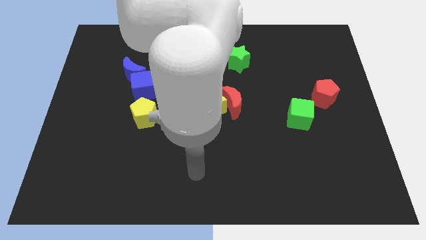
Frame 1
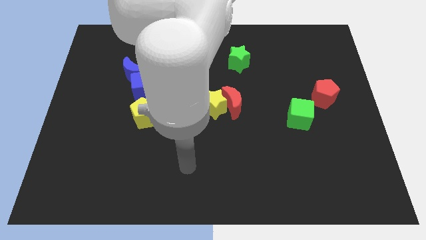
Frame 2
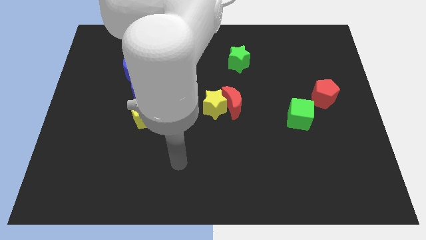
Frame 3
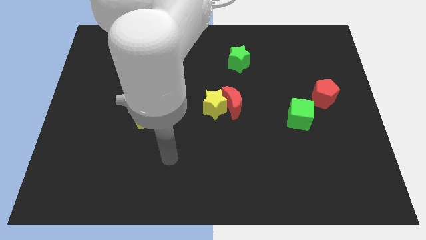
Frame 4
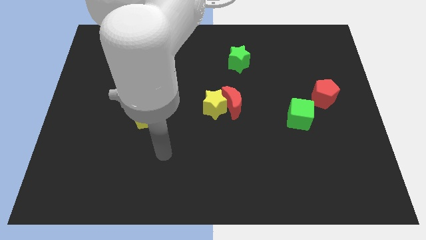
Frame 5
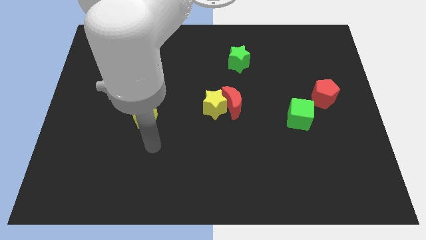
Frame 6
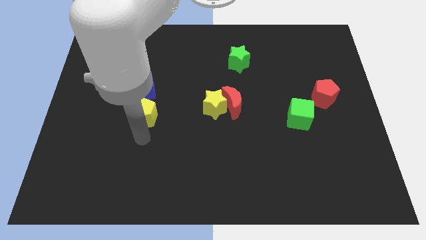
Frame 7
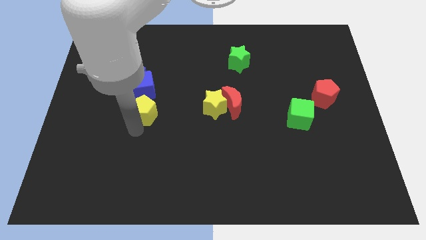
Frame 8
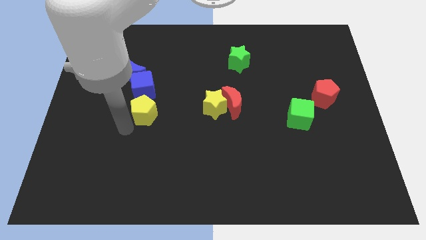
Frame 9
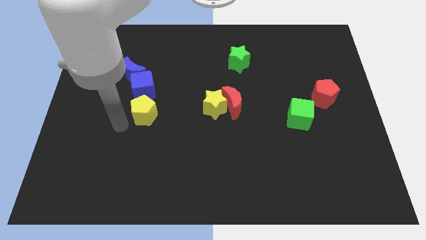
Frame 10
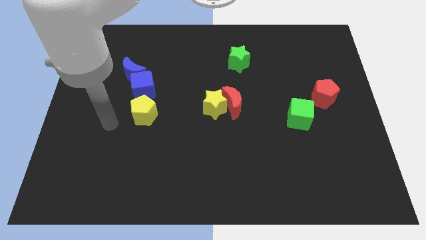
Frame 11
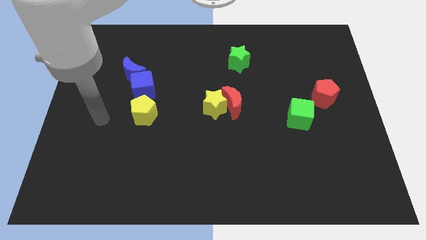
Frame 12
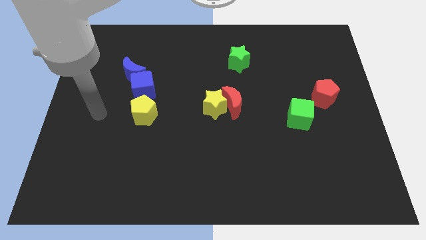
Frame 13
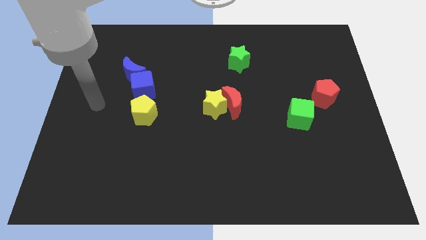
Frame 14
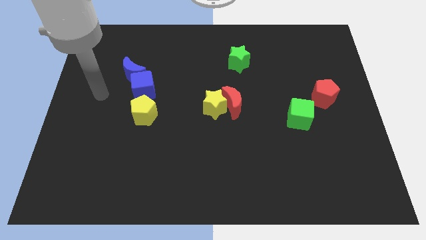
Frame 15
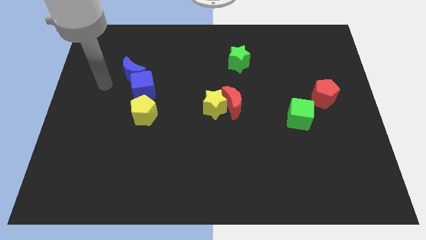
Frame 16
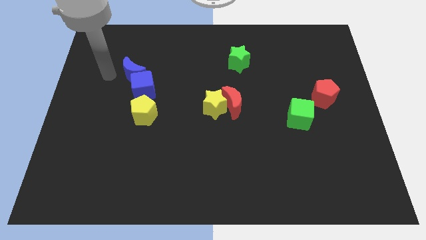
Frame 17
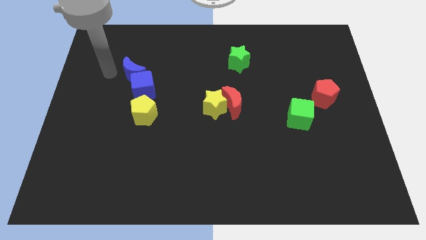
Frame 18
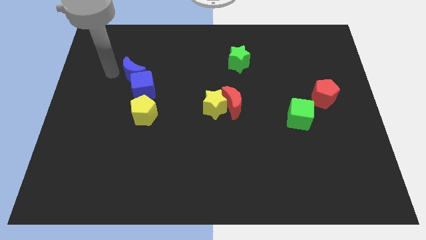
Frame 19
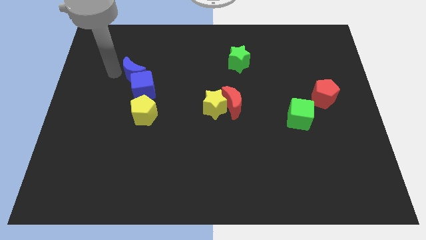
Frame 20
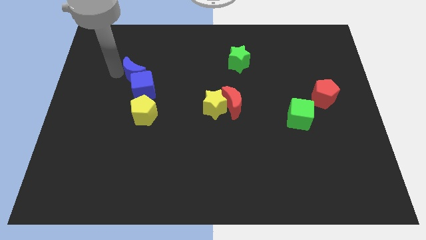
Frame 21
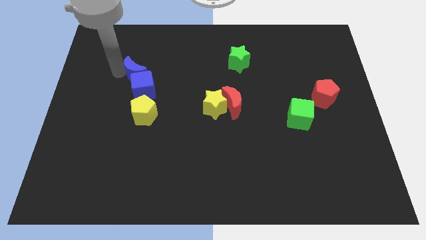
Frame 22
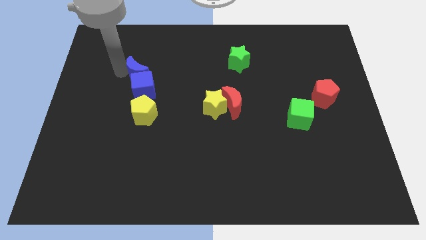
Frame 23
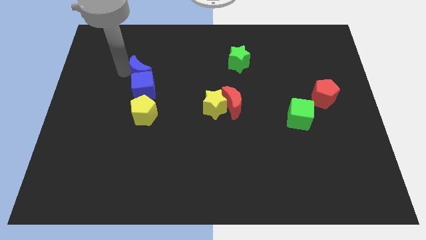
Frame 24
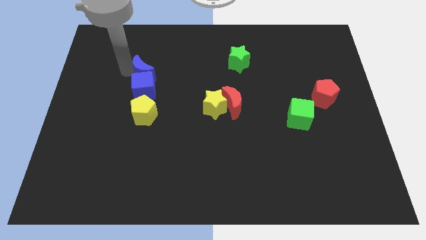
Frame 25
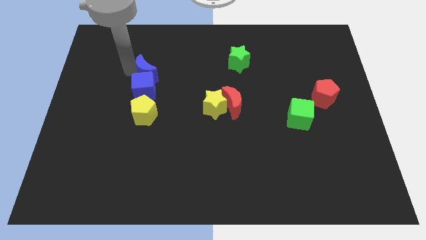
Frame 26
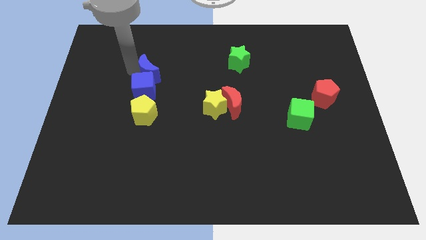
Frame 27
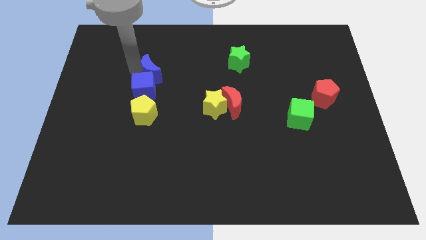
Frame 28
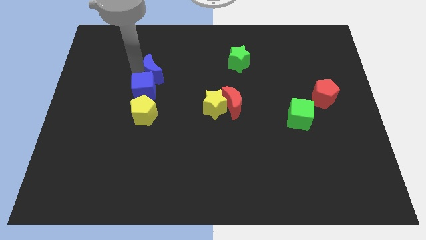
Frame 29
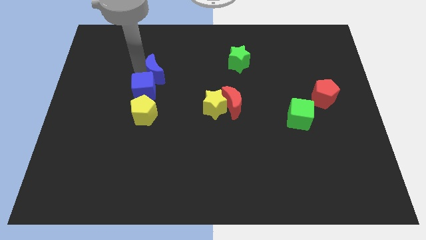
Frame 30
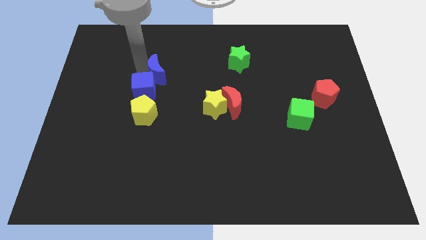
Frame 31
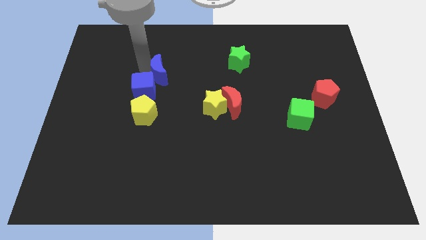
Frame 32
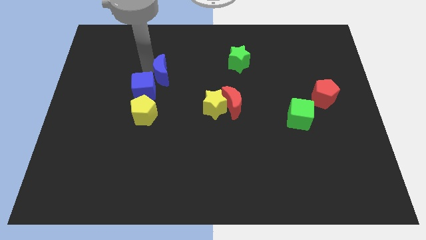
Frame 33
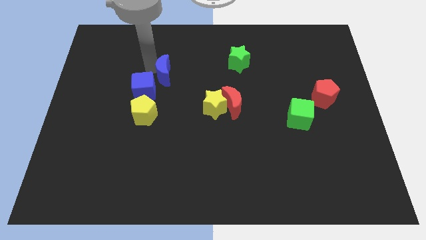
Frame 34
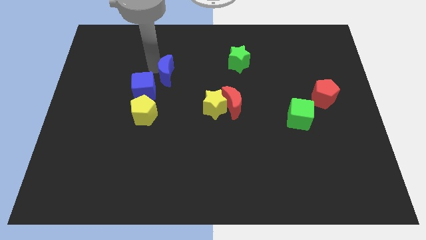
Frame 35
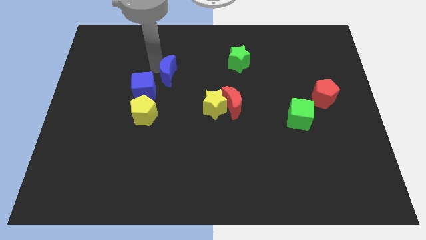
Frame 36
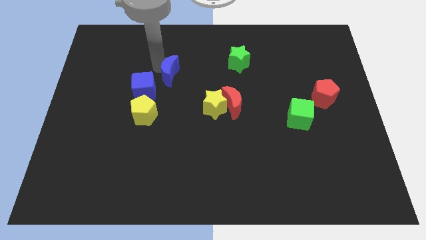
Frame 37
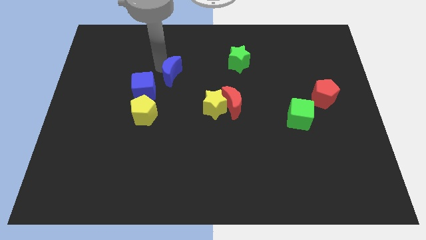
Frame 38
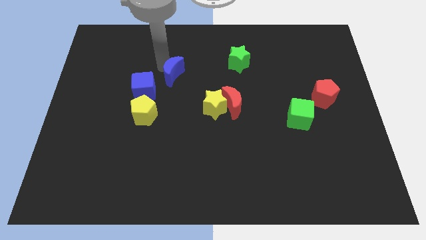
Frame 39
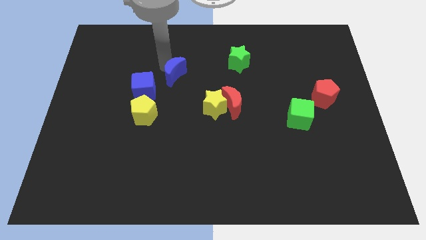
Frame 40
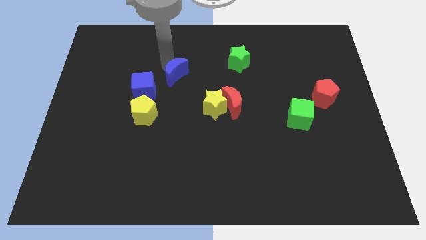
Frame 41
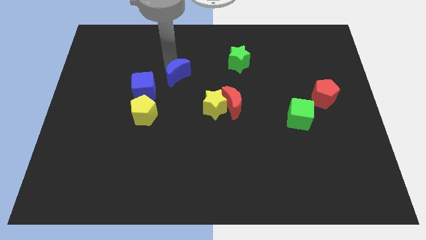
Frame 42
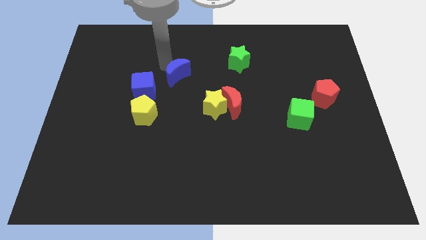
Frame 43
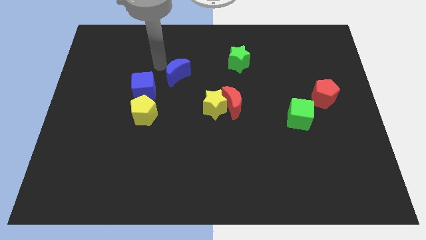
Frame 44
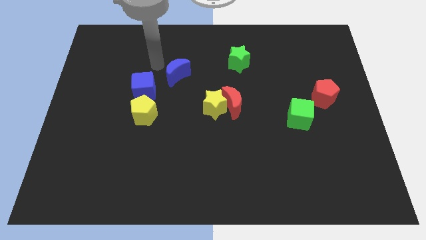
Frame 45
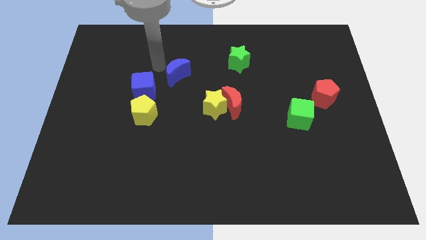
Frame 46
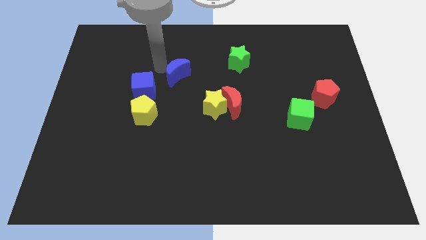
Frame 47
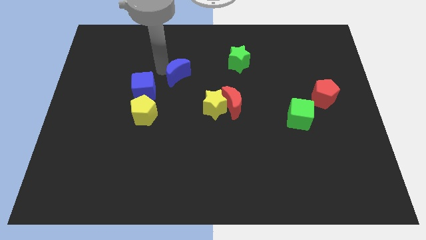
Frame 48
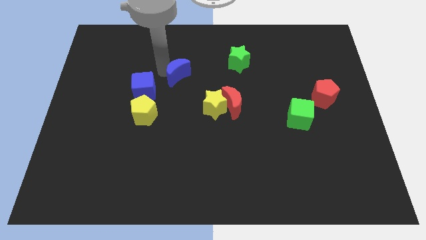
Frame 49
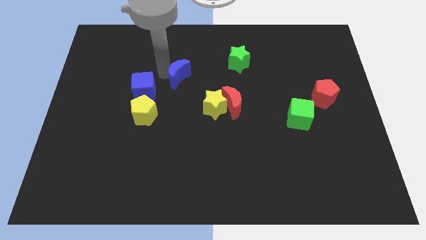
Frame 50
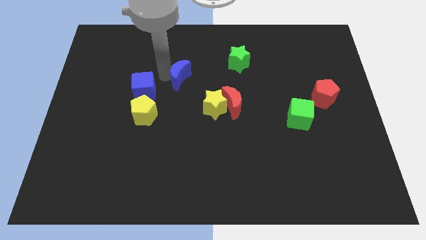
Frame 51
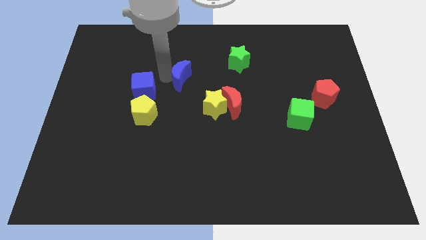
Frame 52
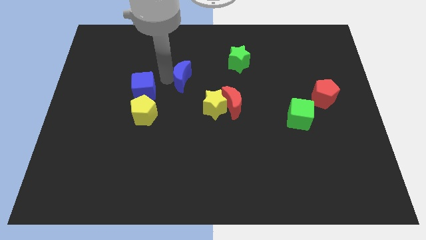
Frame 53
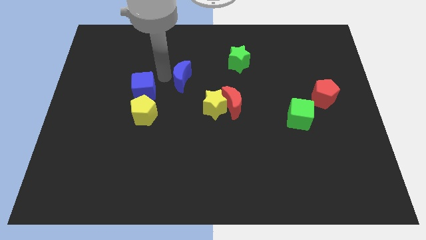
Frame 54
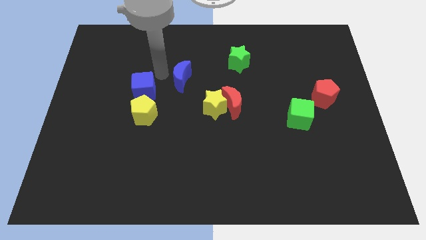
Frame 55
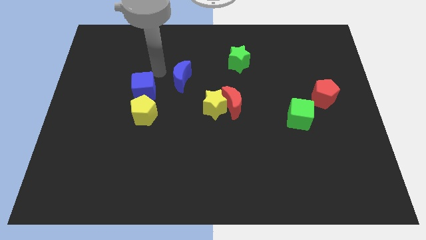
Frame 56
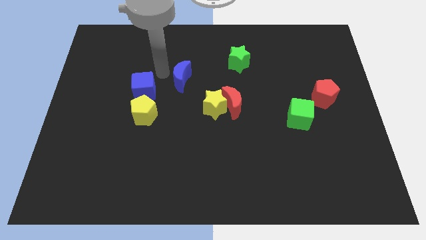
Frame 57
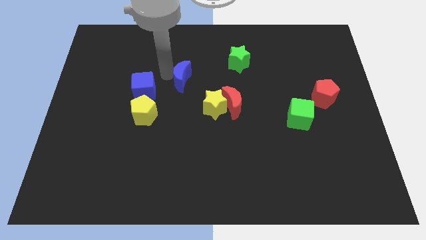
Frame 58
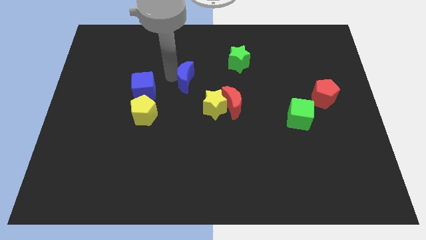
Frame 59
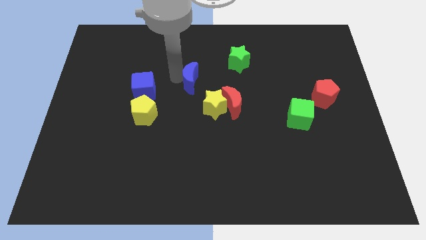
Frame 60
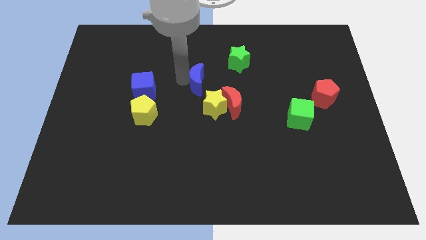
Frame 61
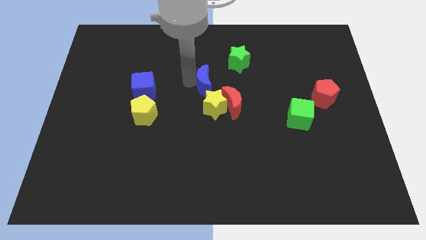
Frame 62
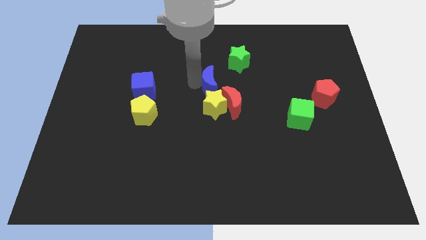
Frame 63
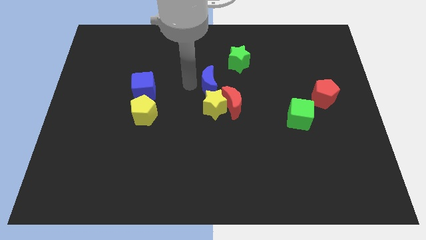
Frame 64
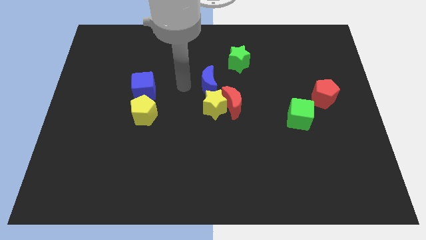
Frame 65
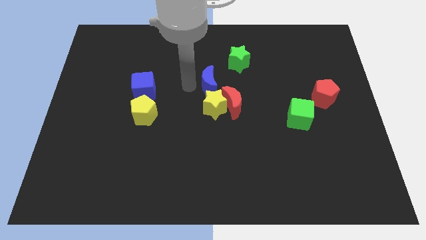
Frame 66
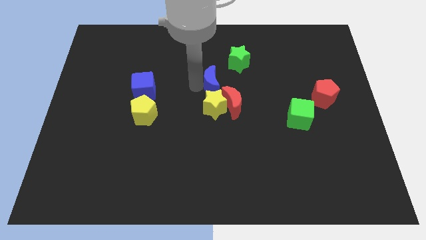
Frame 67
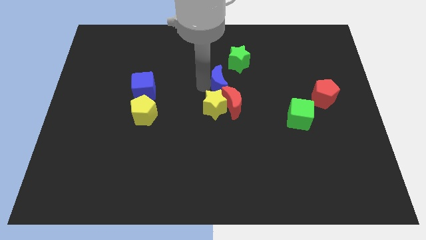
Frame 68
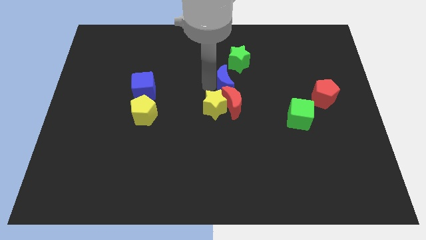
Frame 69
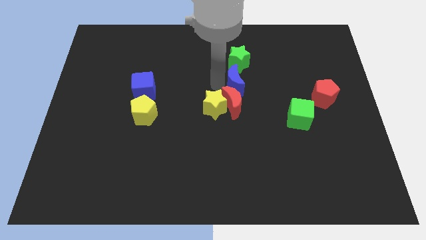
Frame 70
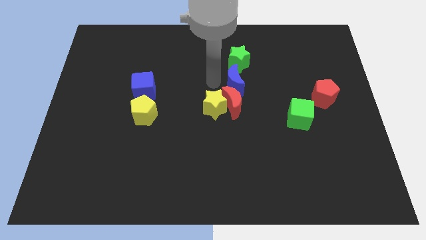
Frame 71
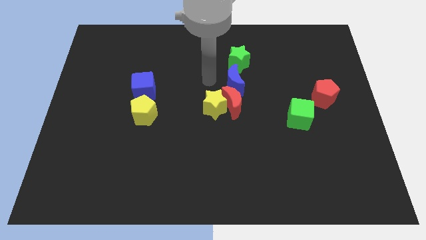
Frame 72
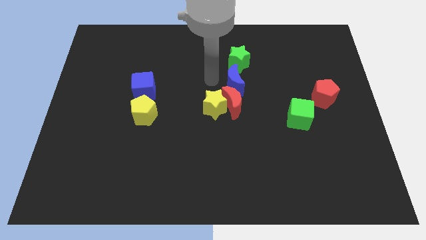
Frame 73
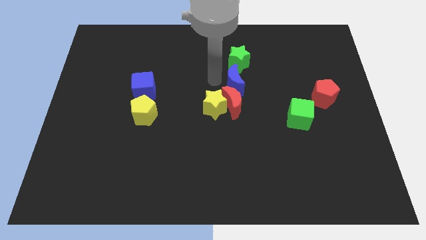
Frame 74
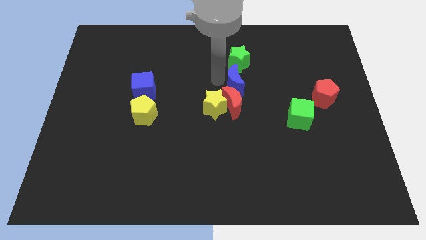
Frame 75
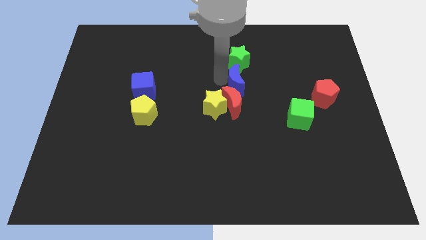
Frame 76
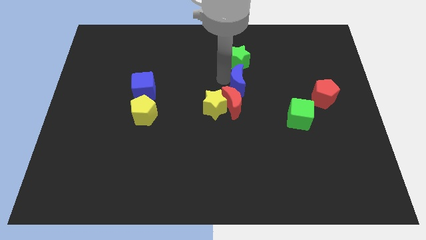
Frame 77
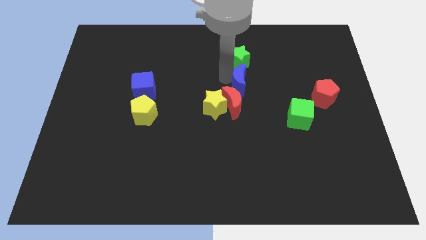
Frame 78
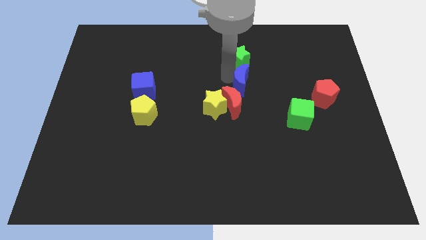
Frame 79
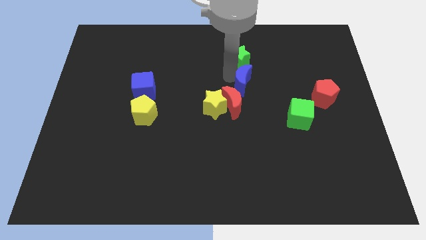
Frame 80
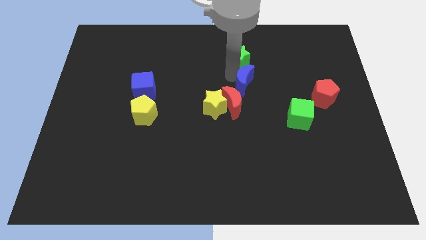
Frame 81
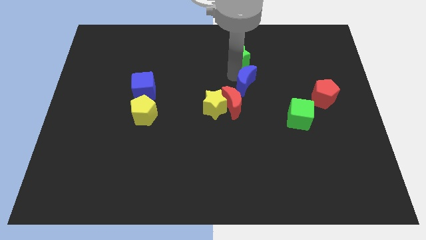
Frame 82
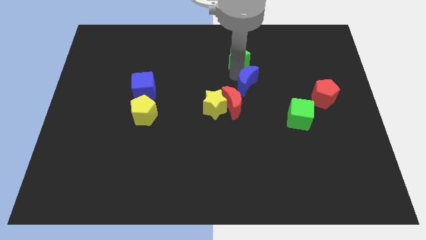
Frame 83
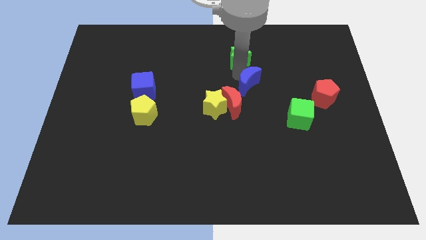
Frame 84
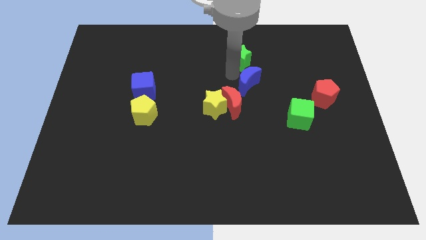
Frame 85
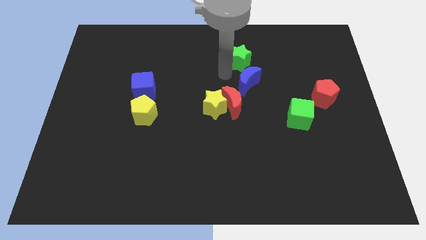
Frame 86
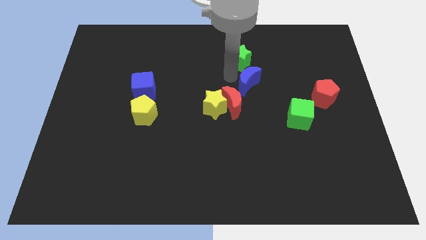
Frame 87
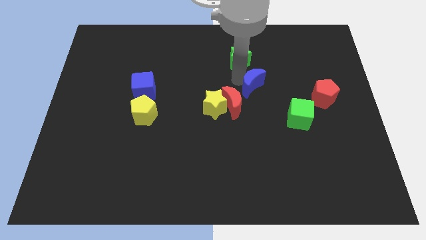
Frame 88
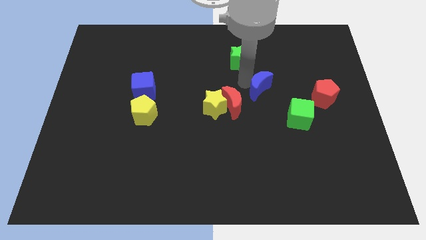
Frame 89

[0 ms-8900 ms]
slide the blue moon to the left side of the red pentagon
